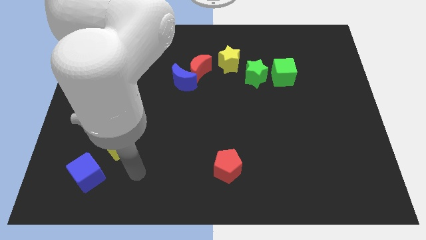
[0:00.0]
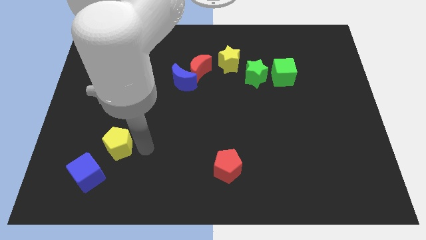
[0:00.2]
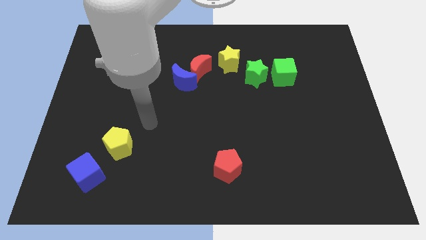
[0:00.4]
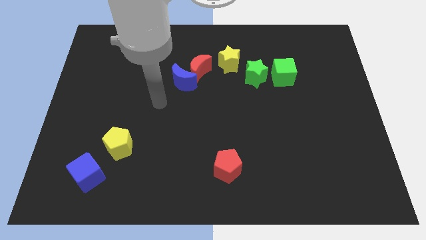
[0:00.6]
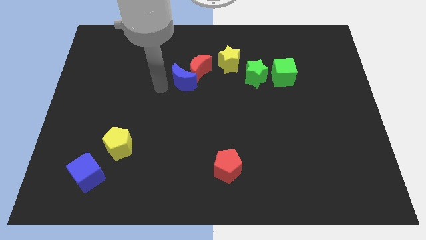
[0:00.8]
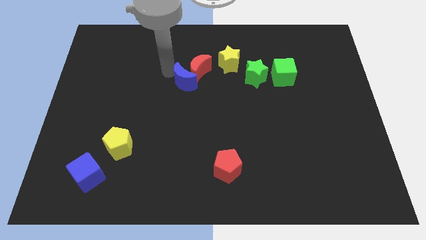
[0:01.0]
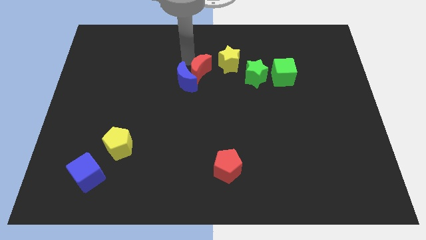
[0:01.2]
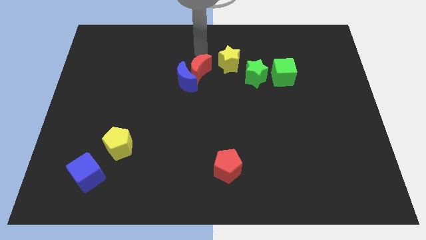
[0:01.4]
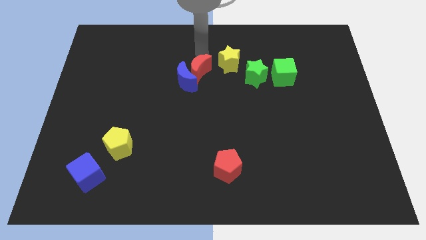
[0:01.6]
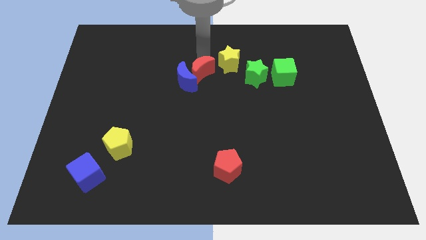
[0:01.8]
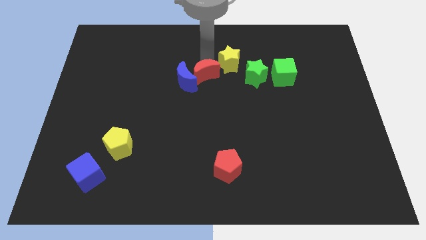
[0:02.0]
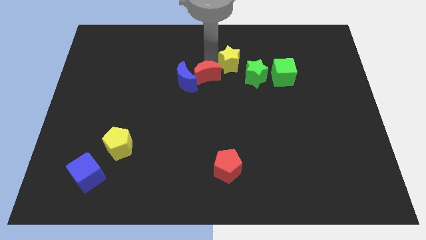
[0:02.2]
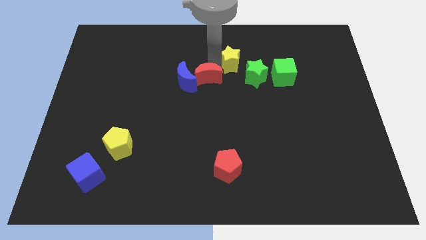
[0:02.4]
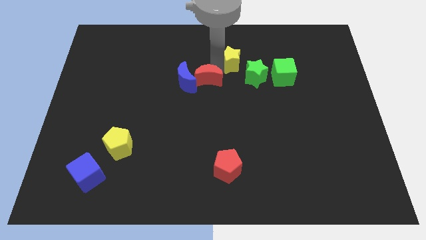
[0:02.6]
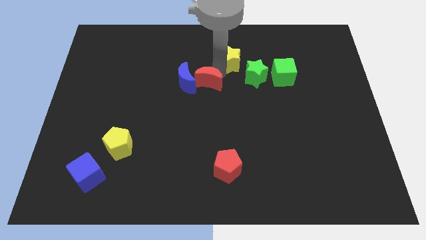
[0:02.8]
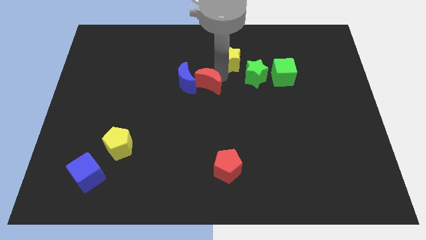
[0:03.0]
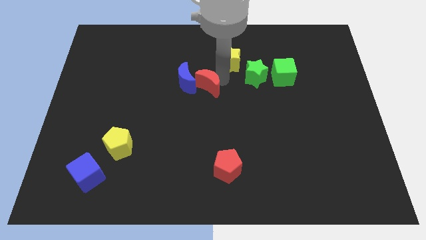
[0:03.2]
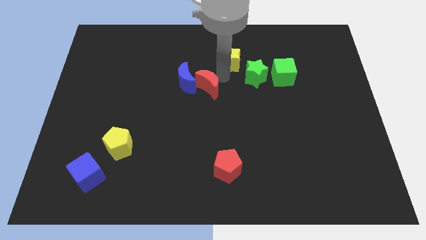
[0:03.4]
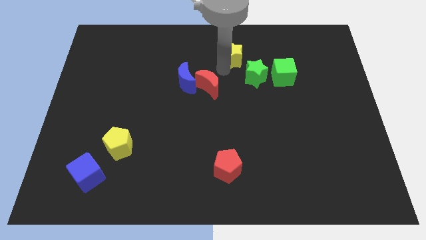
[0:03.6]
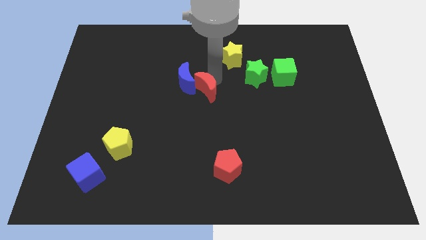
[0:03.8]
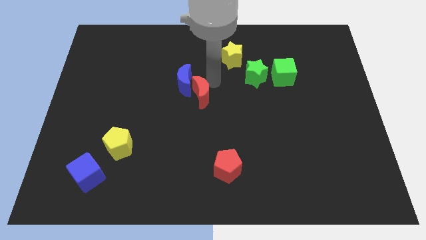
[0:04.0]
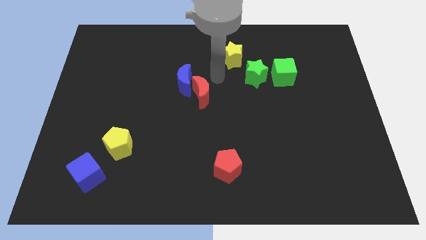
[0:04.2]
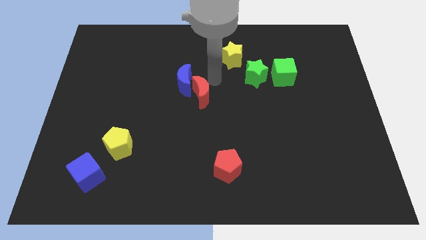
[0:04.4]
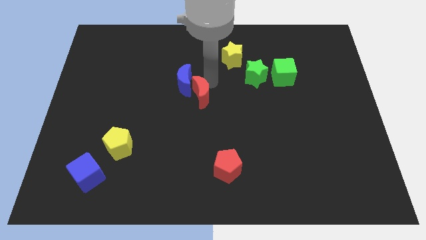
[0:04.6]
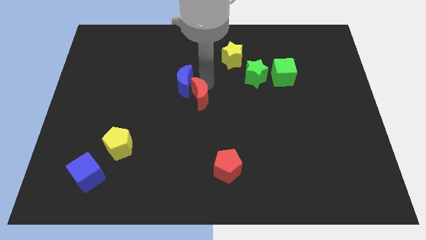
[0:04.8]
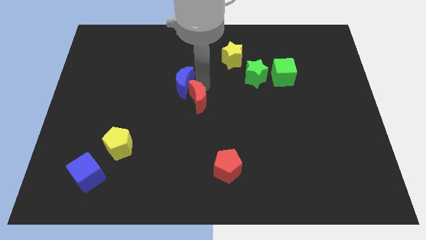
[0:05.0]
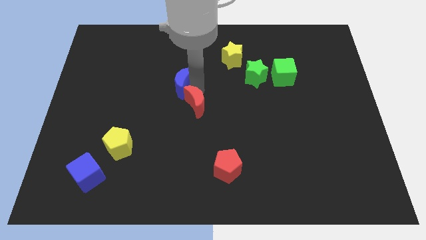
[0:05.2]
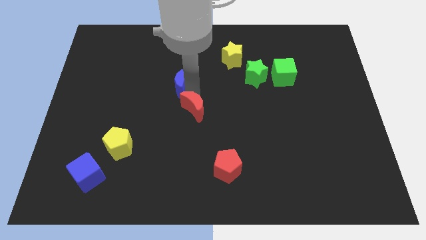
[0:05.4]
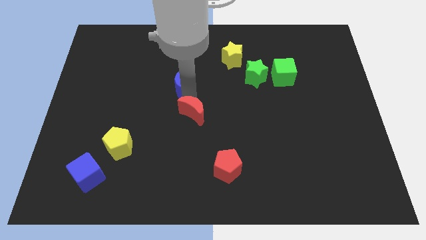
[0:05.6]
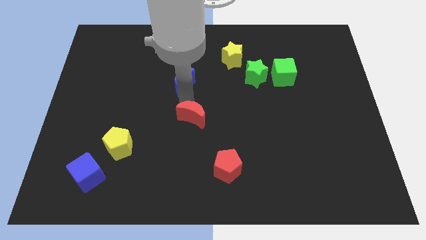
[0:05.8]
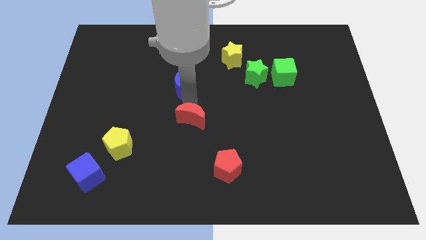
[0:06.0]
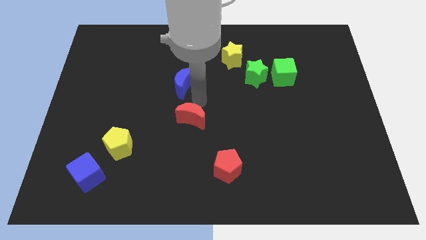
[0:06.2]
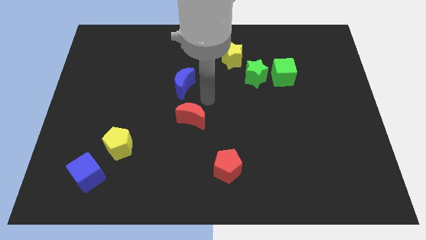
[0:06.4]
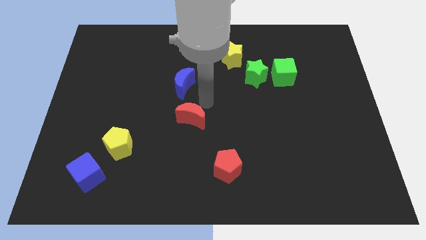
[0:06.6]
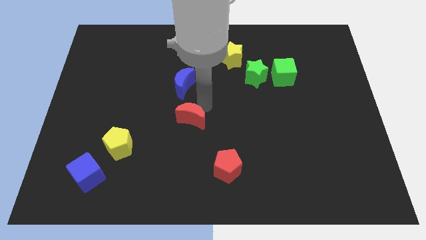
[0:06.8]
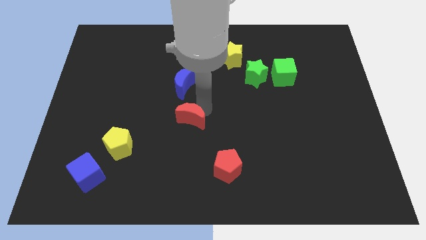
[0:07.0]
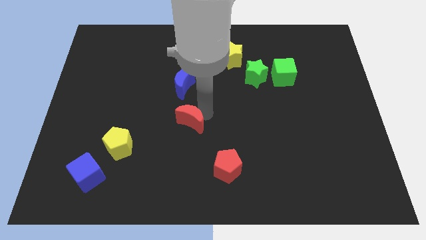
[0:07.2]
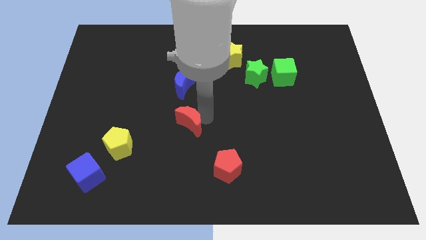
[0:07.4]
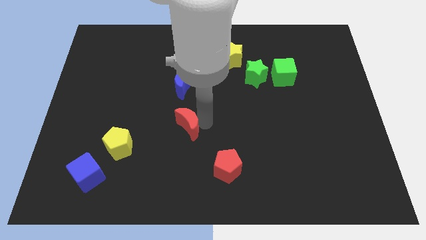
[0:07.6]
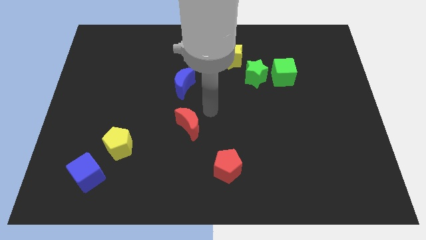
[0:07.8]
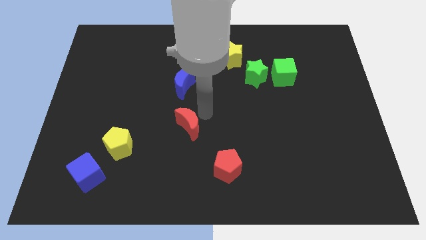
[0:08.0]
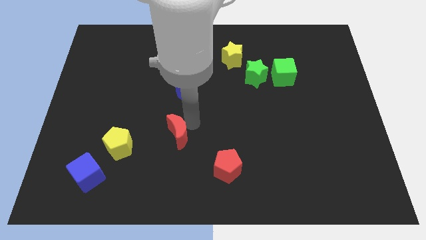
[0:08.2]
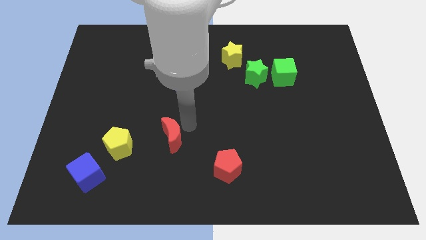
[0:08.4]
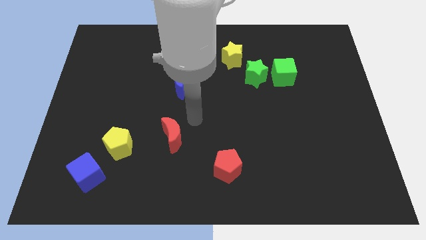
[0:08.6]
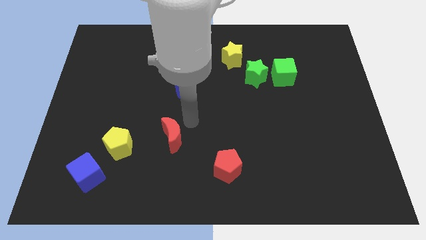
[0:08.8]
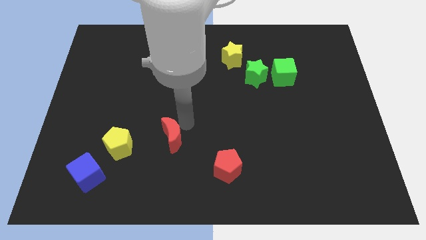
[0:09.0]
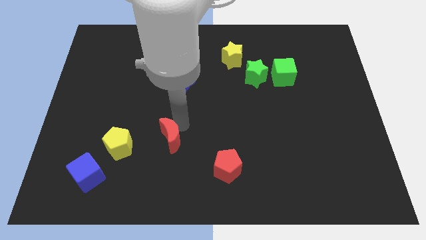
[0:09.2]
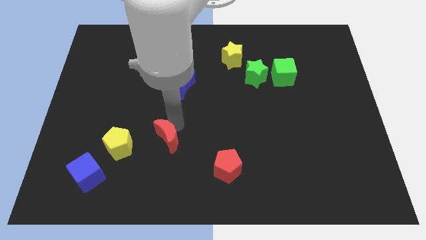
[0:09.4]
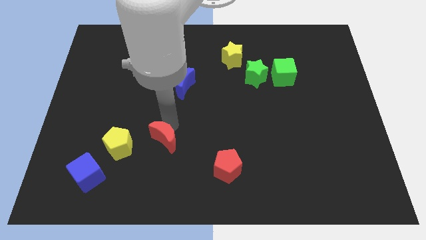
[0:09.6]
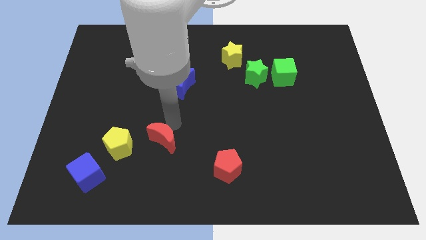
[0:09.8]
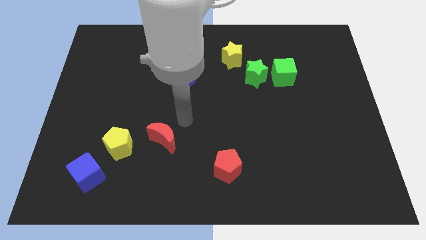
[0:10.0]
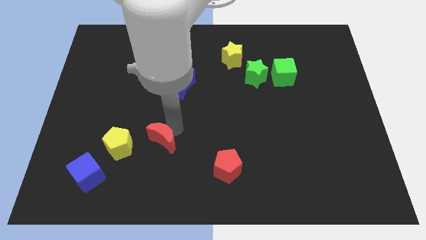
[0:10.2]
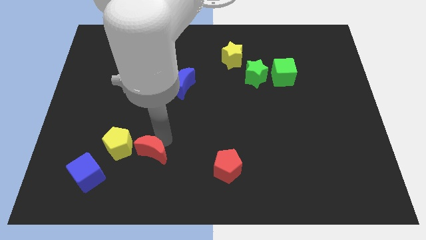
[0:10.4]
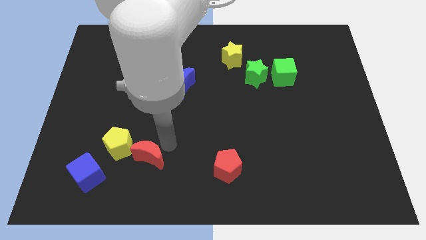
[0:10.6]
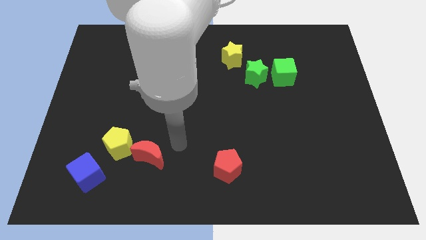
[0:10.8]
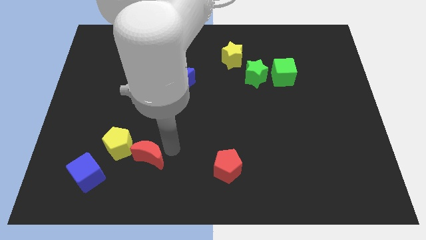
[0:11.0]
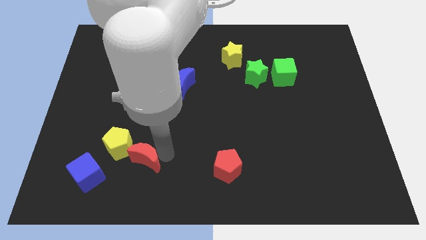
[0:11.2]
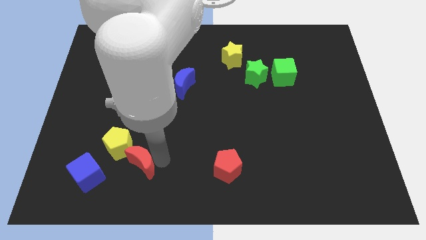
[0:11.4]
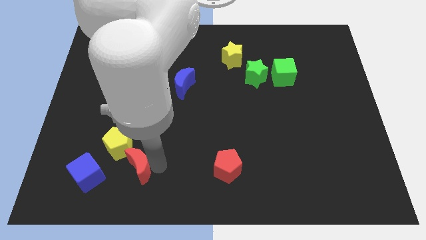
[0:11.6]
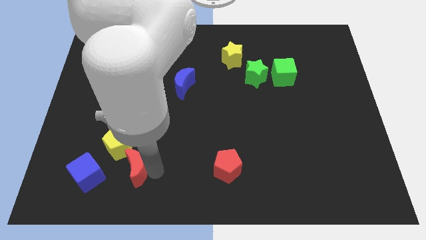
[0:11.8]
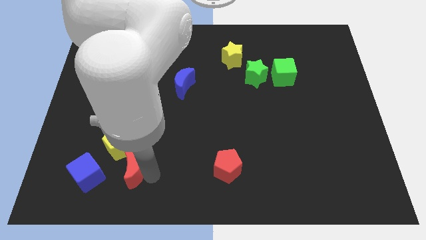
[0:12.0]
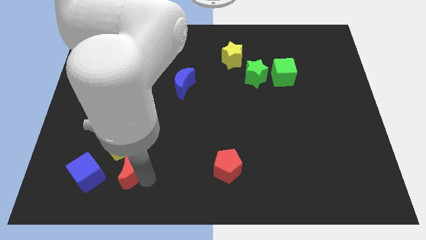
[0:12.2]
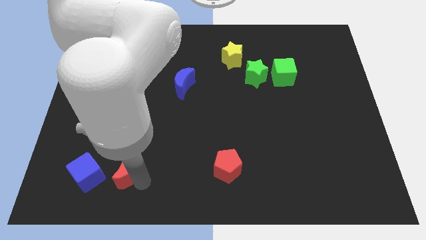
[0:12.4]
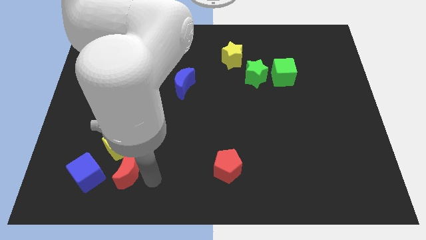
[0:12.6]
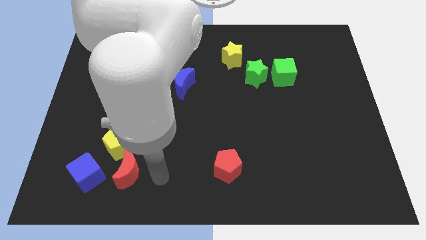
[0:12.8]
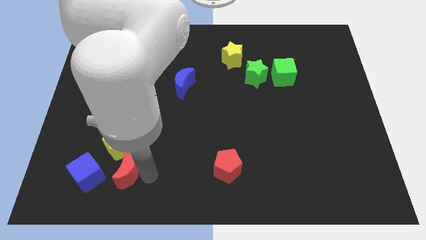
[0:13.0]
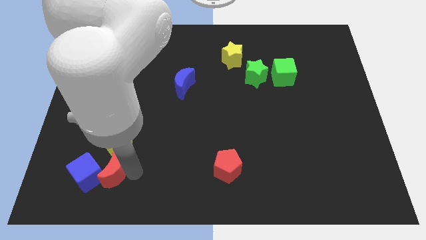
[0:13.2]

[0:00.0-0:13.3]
push the red moon towards the blue cube
